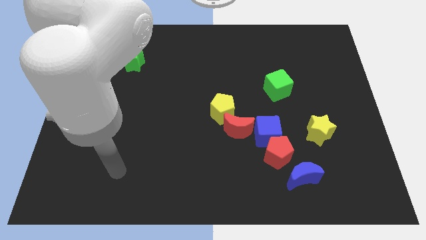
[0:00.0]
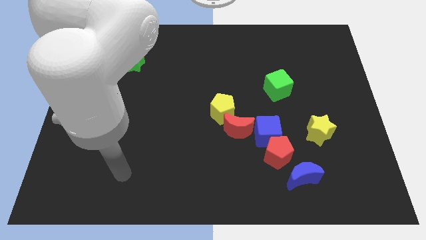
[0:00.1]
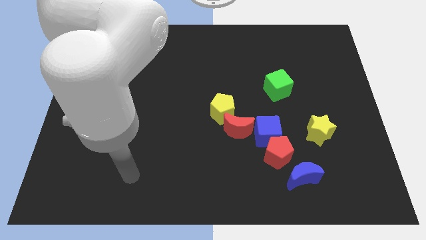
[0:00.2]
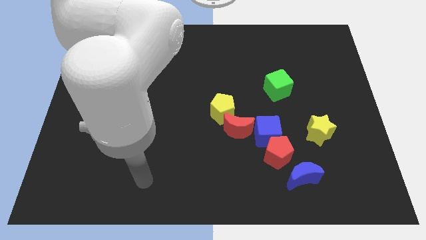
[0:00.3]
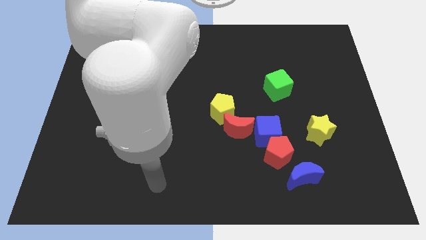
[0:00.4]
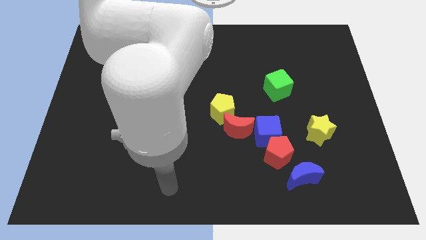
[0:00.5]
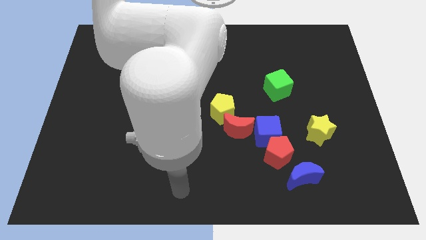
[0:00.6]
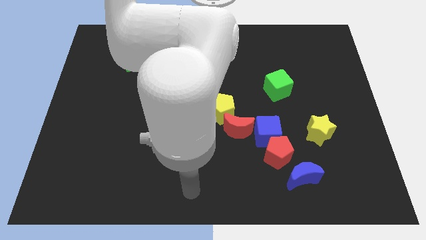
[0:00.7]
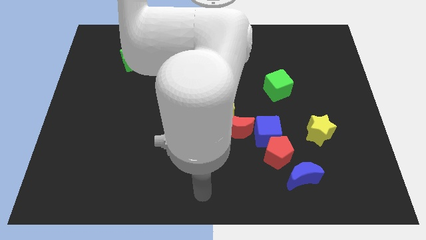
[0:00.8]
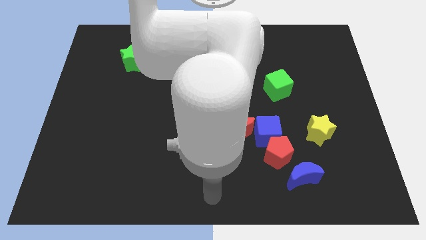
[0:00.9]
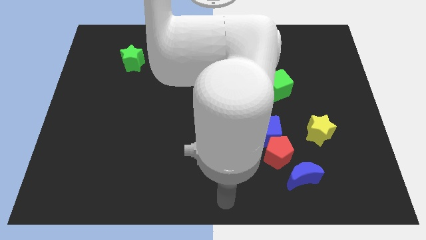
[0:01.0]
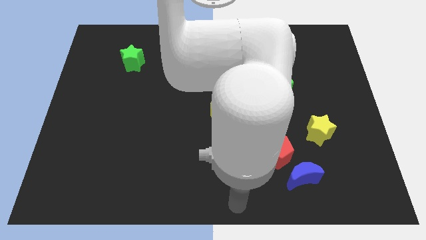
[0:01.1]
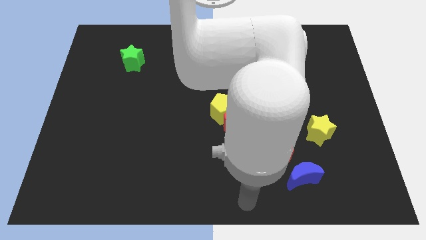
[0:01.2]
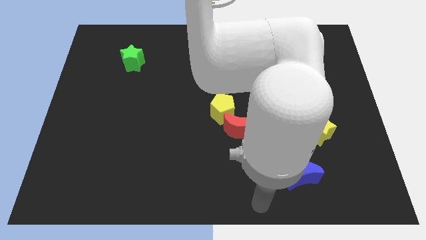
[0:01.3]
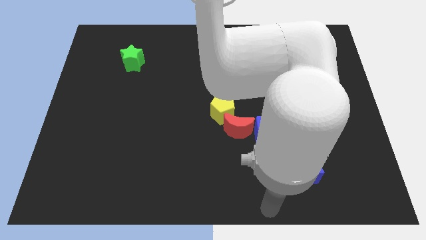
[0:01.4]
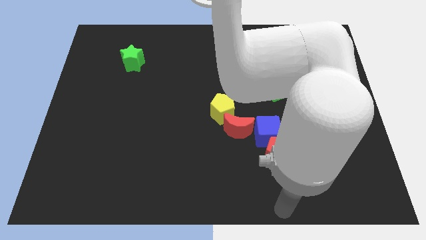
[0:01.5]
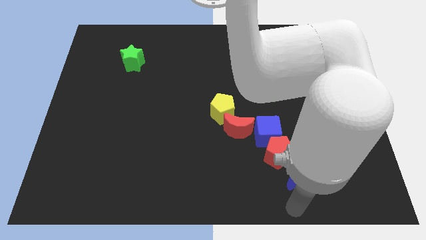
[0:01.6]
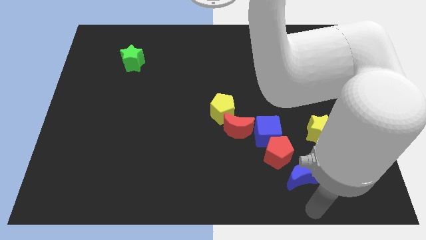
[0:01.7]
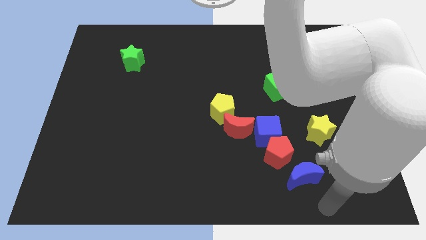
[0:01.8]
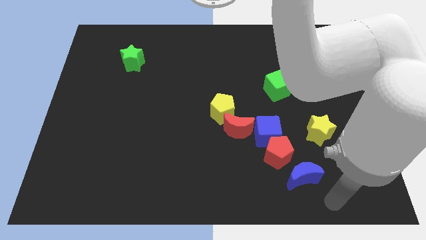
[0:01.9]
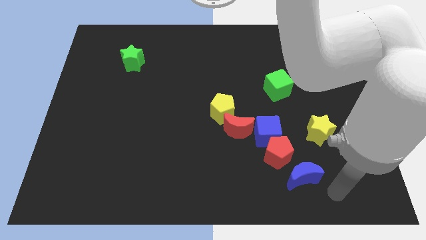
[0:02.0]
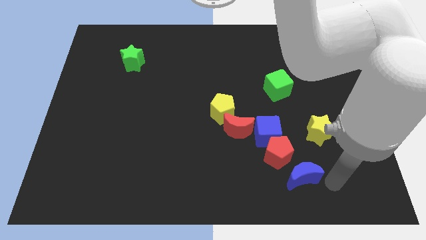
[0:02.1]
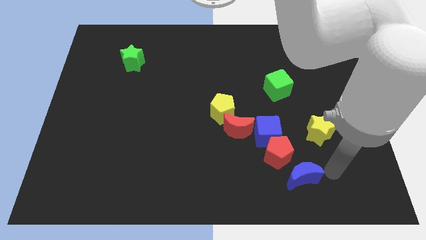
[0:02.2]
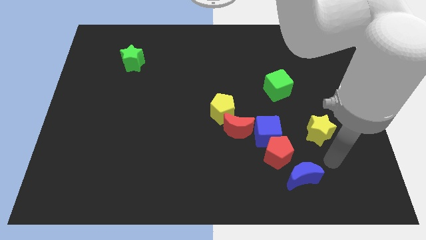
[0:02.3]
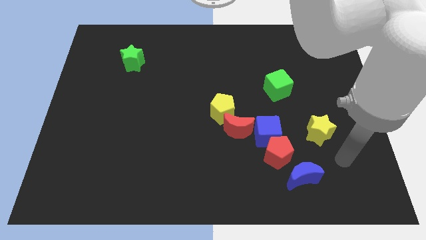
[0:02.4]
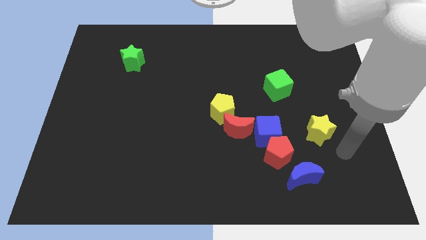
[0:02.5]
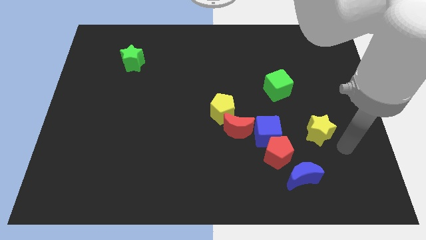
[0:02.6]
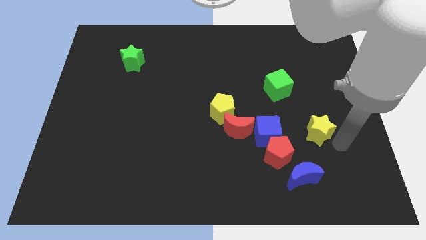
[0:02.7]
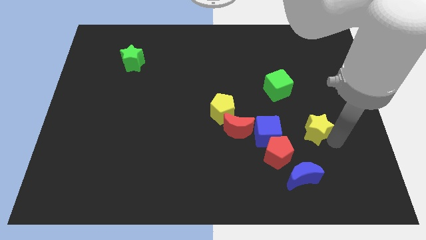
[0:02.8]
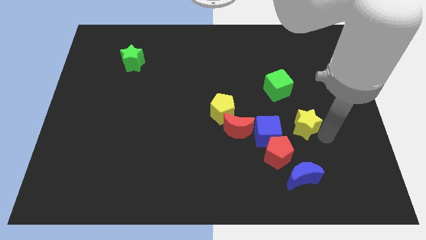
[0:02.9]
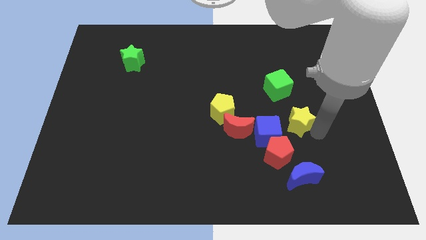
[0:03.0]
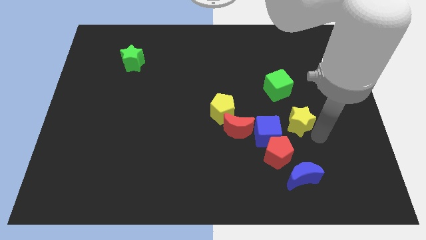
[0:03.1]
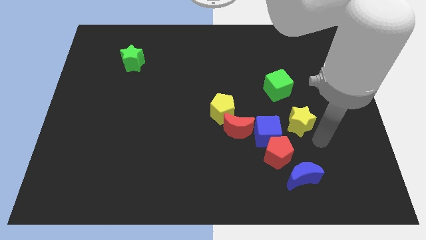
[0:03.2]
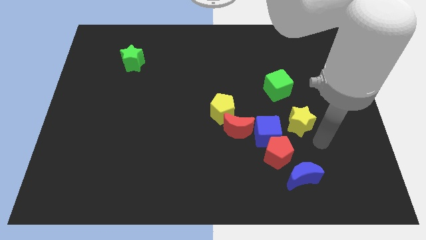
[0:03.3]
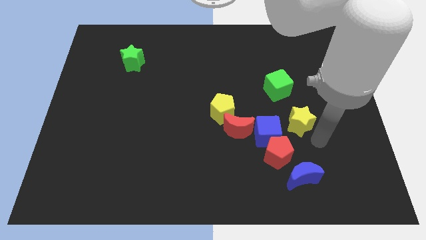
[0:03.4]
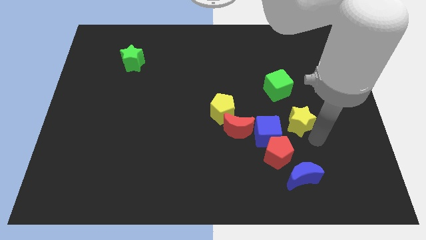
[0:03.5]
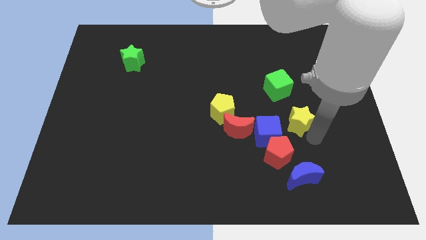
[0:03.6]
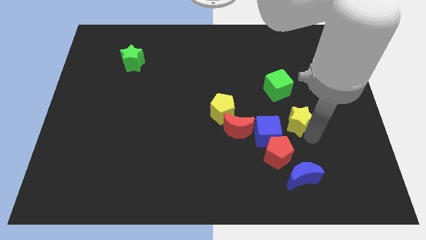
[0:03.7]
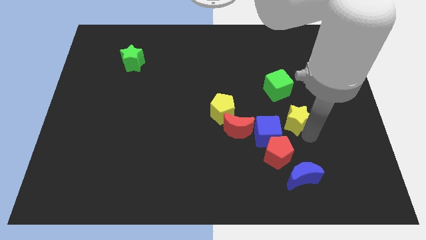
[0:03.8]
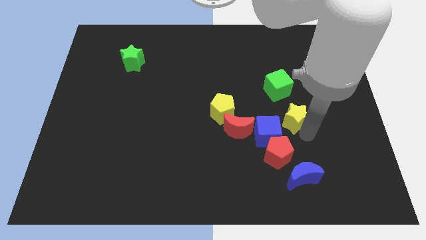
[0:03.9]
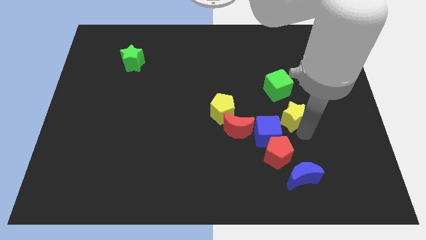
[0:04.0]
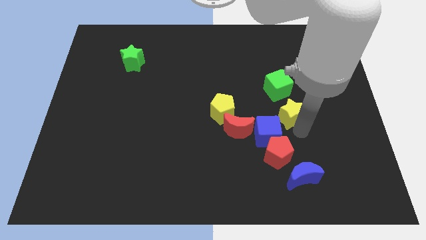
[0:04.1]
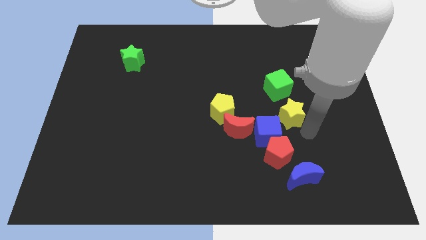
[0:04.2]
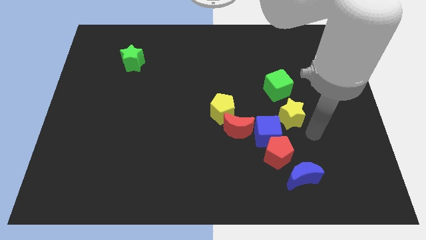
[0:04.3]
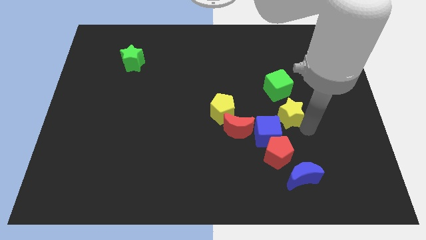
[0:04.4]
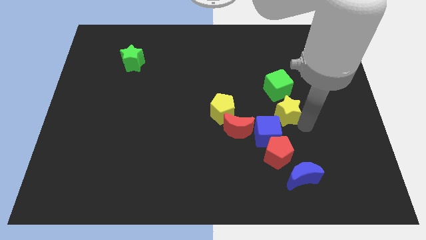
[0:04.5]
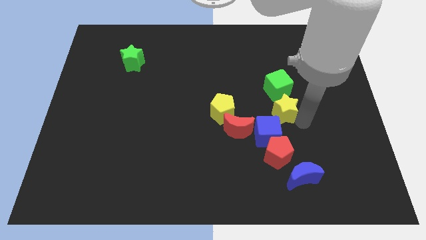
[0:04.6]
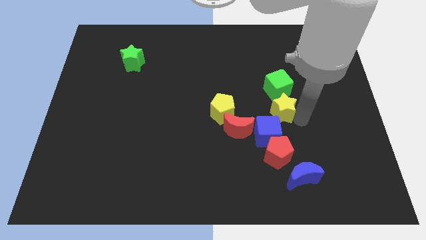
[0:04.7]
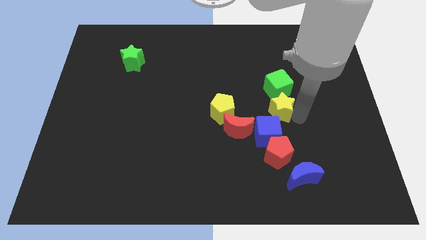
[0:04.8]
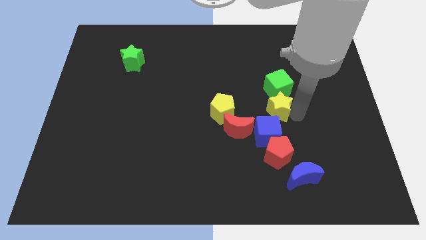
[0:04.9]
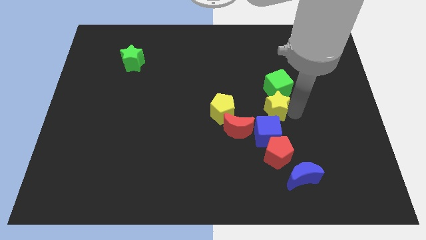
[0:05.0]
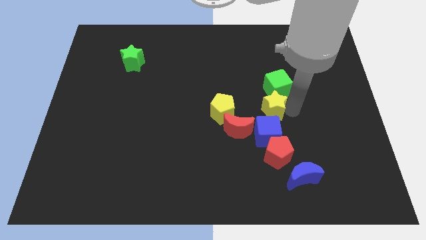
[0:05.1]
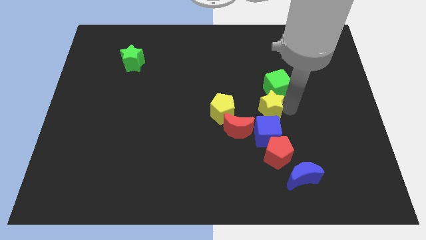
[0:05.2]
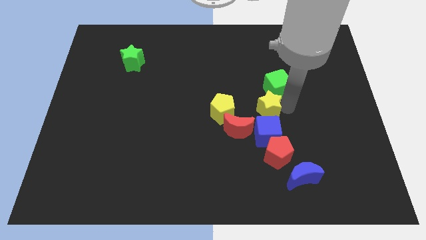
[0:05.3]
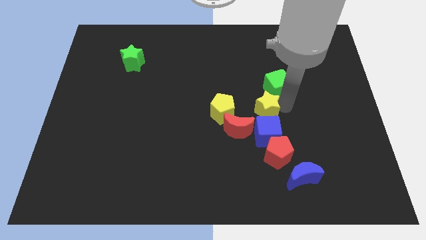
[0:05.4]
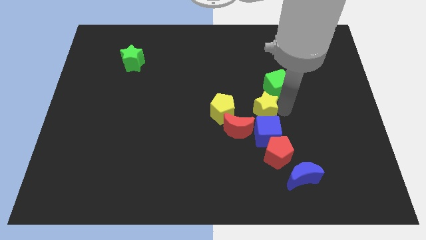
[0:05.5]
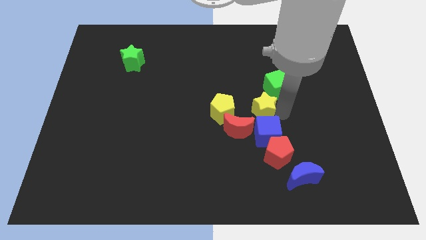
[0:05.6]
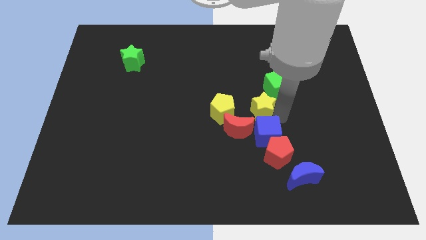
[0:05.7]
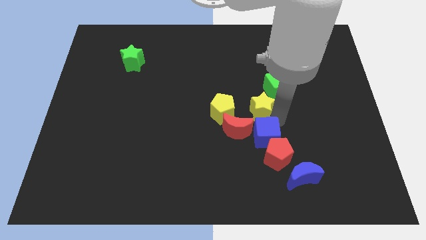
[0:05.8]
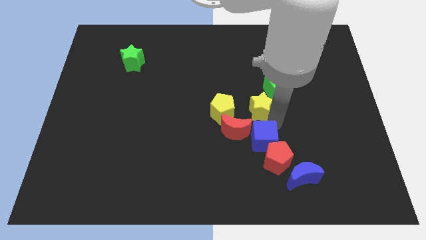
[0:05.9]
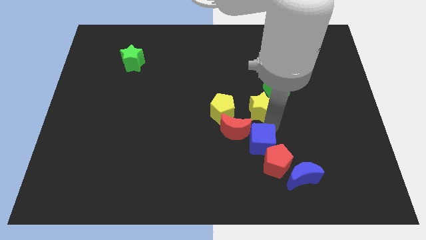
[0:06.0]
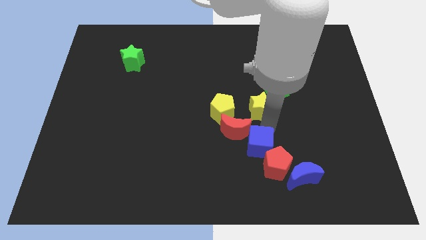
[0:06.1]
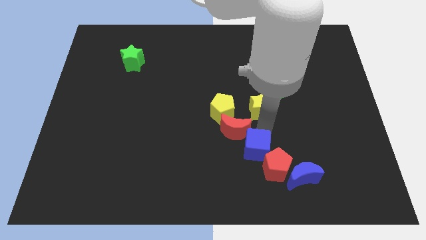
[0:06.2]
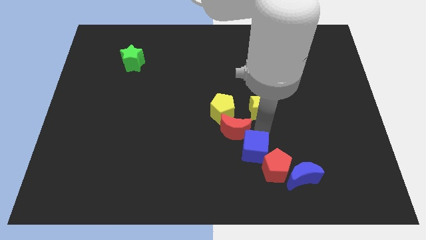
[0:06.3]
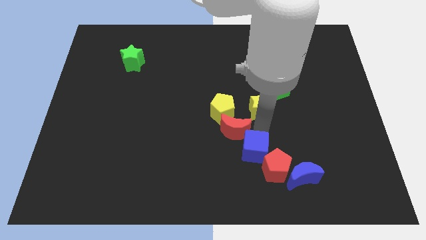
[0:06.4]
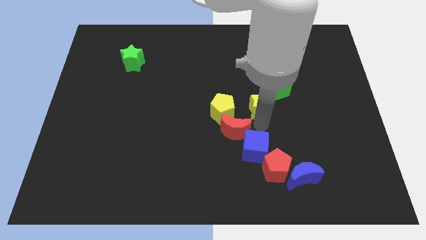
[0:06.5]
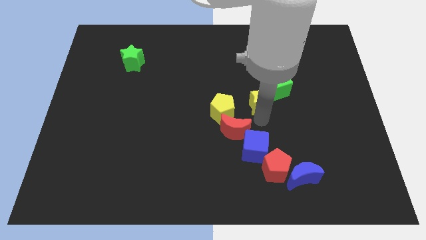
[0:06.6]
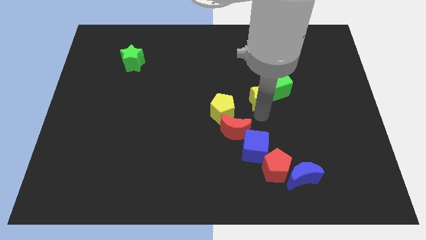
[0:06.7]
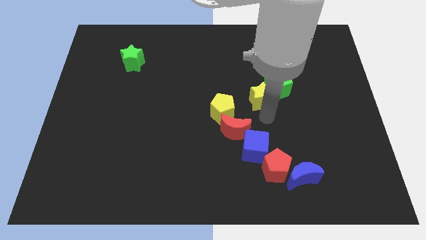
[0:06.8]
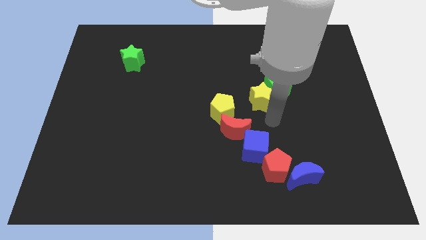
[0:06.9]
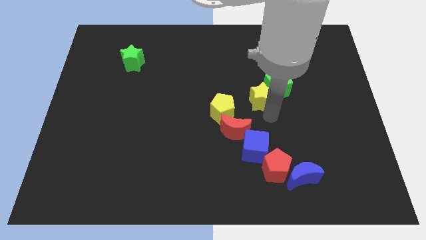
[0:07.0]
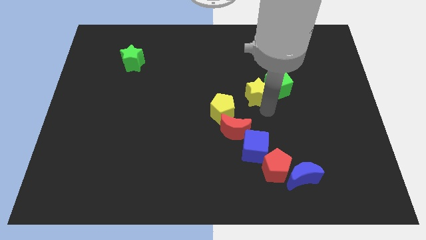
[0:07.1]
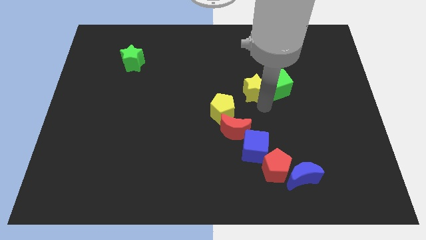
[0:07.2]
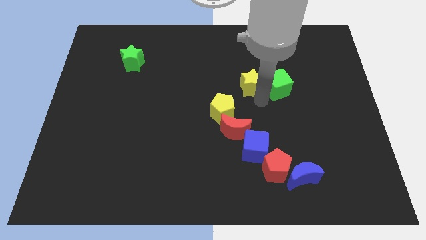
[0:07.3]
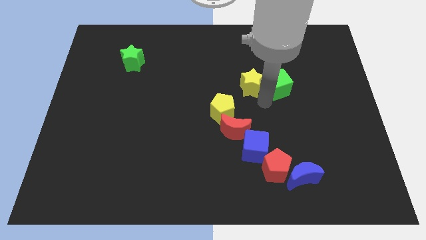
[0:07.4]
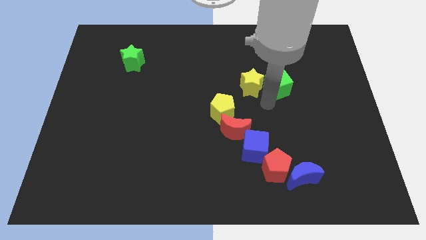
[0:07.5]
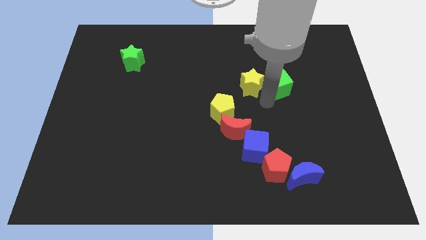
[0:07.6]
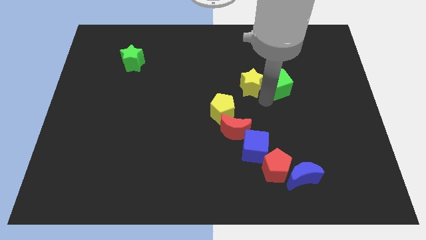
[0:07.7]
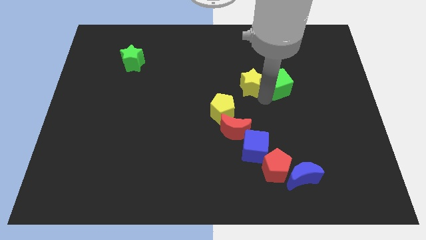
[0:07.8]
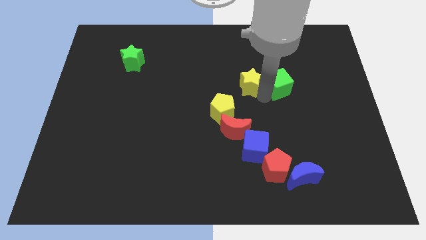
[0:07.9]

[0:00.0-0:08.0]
push the yellow star diagonally up and to the left

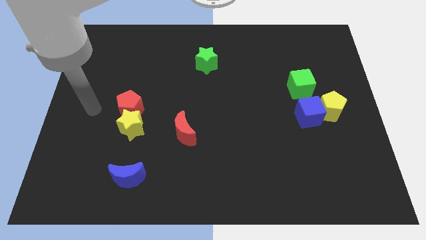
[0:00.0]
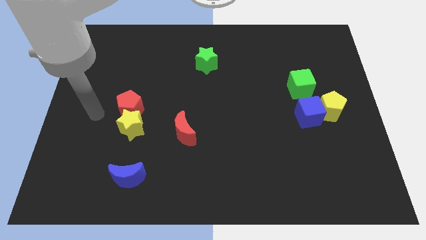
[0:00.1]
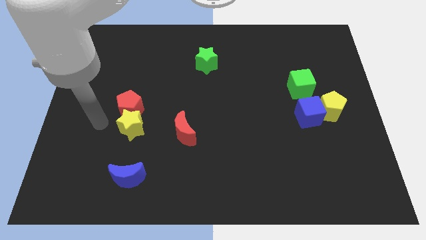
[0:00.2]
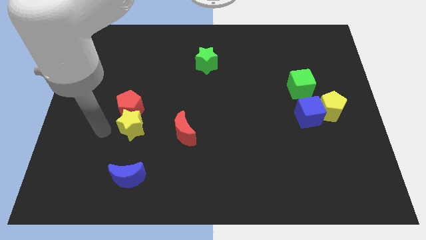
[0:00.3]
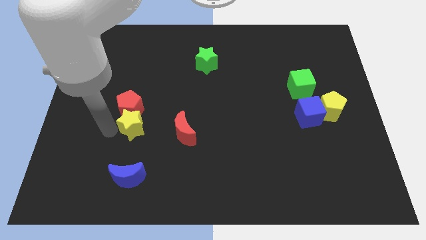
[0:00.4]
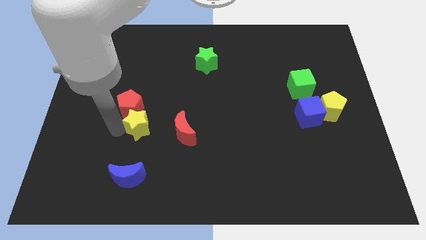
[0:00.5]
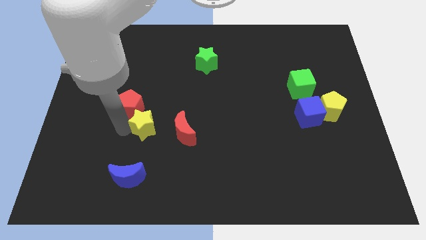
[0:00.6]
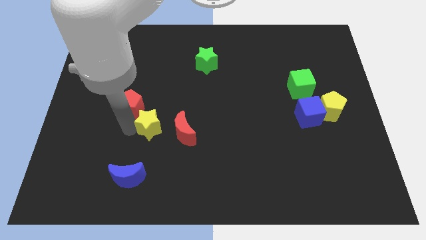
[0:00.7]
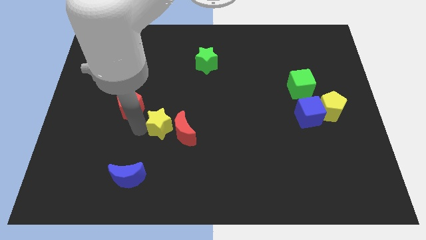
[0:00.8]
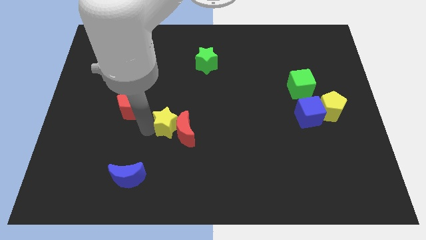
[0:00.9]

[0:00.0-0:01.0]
slightly push the yellow star to the right
